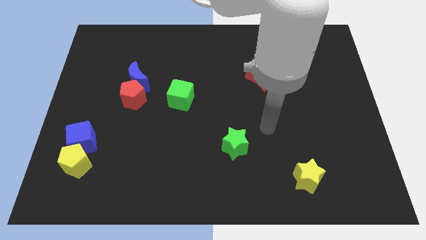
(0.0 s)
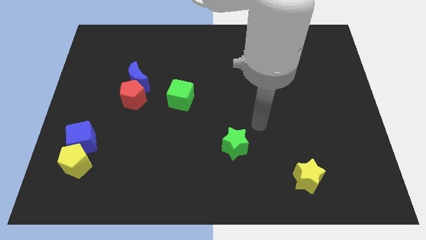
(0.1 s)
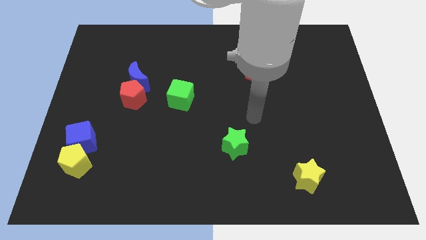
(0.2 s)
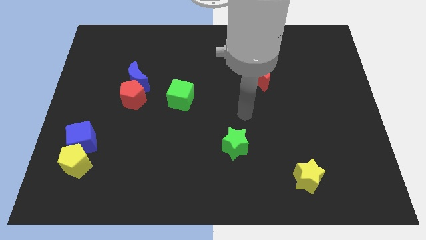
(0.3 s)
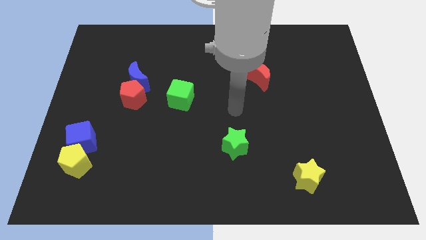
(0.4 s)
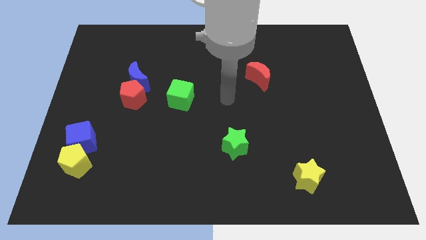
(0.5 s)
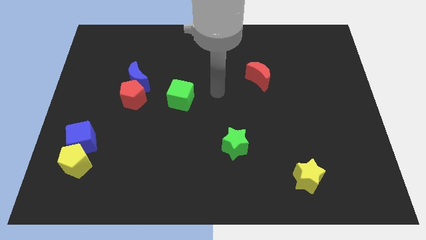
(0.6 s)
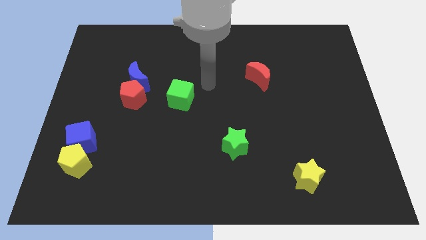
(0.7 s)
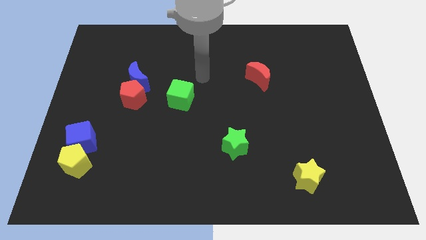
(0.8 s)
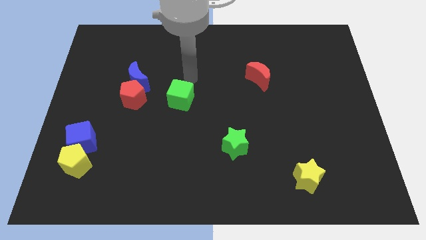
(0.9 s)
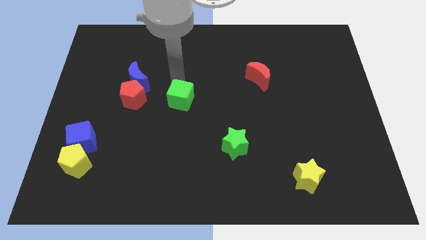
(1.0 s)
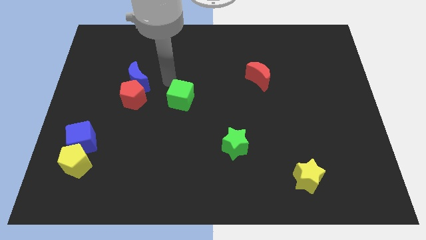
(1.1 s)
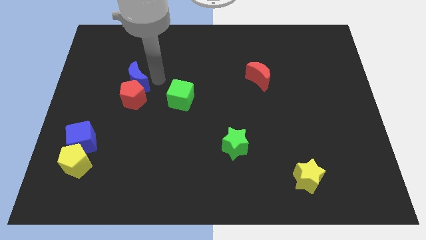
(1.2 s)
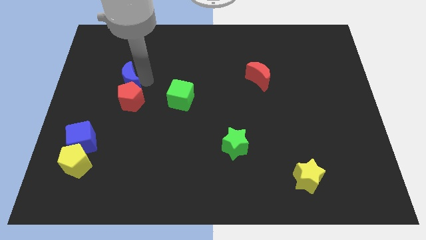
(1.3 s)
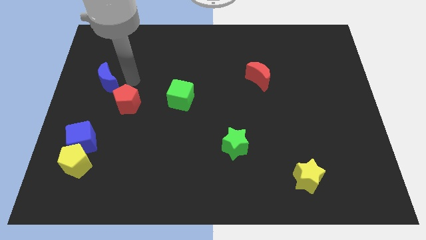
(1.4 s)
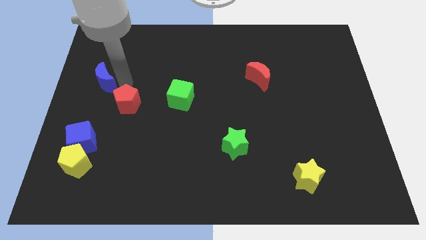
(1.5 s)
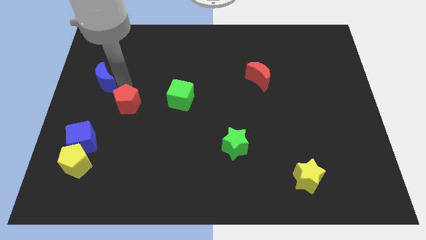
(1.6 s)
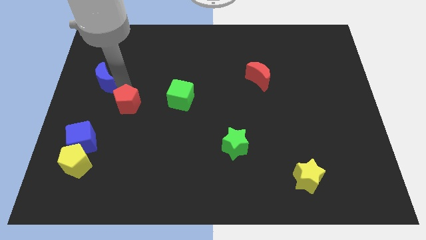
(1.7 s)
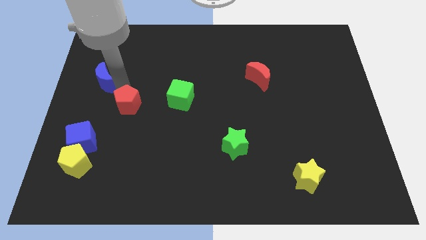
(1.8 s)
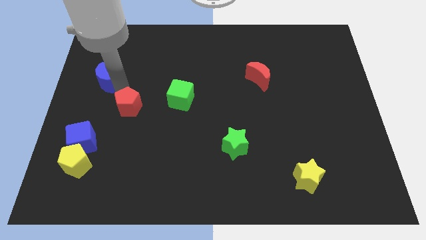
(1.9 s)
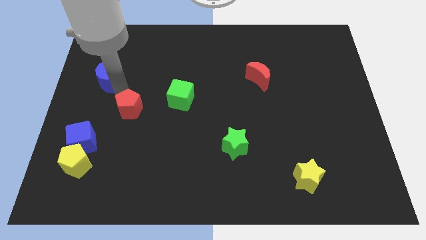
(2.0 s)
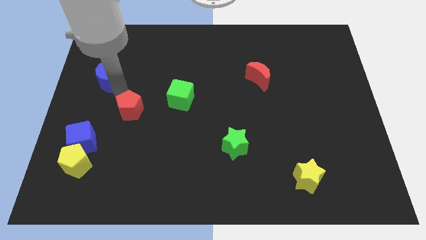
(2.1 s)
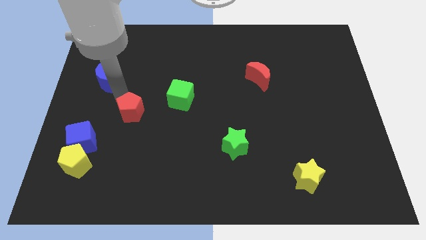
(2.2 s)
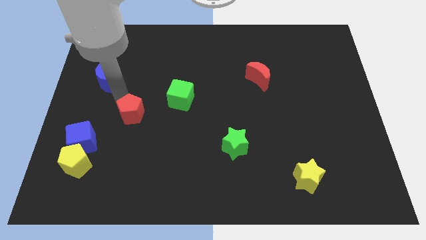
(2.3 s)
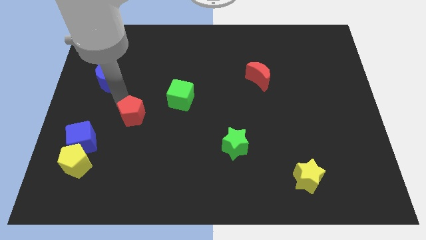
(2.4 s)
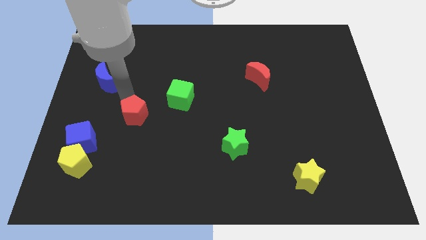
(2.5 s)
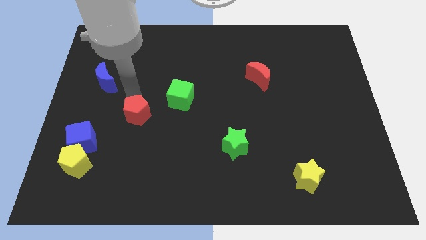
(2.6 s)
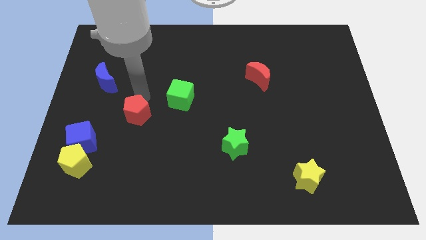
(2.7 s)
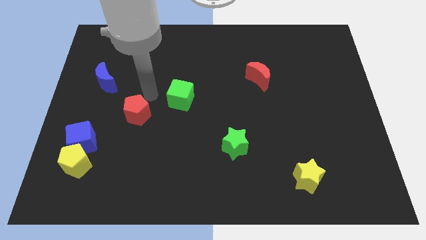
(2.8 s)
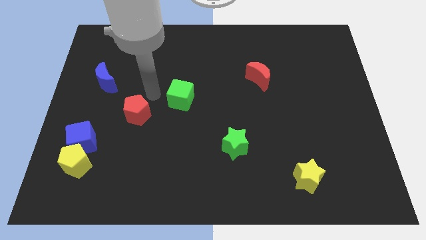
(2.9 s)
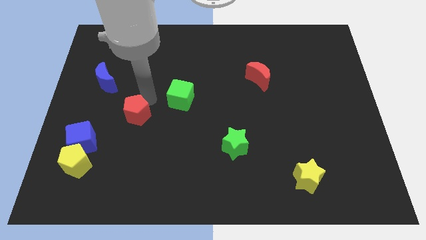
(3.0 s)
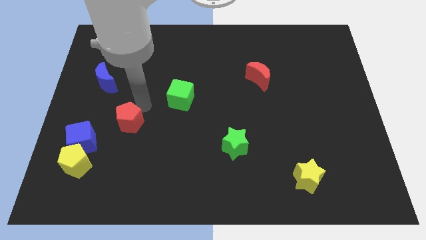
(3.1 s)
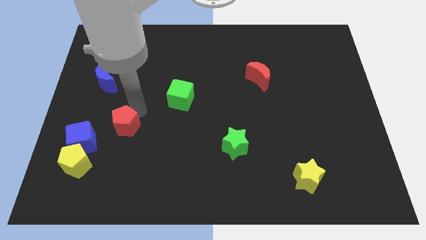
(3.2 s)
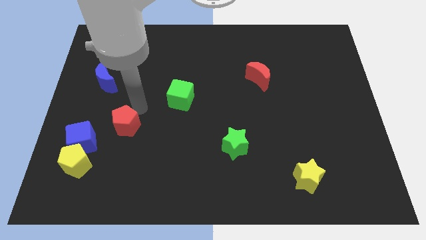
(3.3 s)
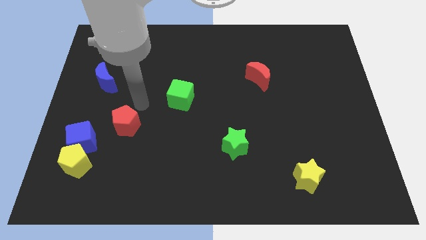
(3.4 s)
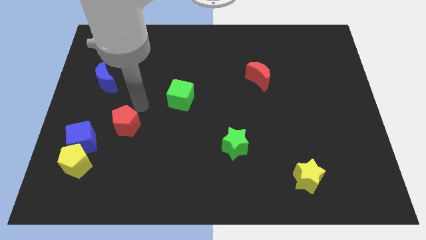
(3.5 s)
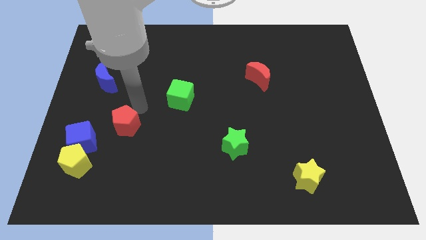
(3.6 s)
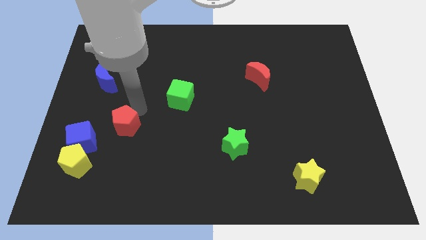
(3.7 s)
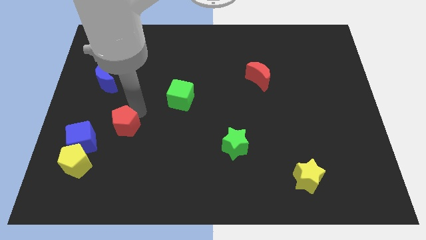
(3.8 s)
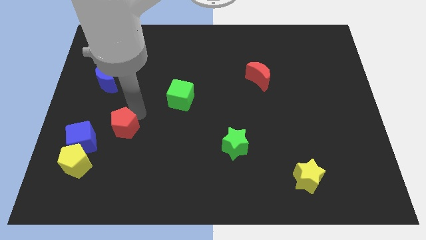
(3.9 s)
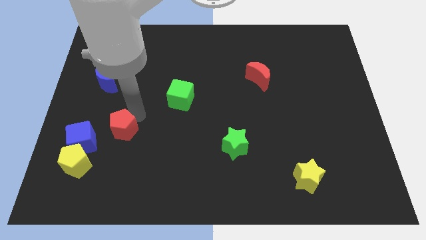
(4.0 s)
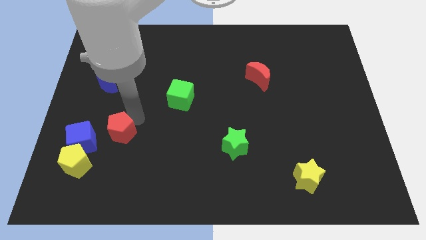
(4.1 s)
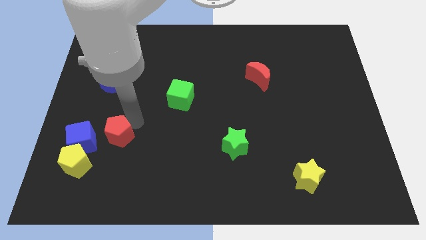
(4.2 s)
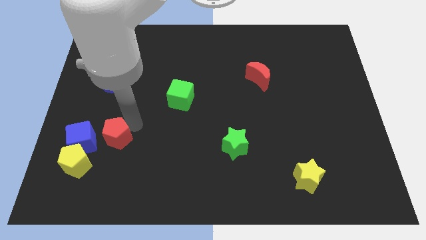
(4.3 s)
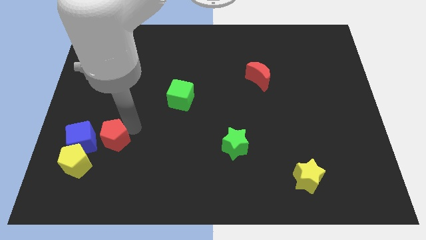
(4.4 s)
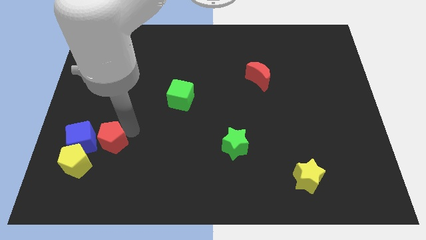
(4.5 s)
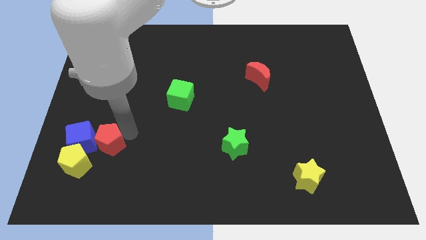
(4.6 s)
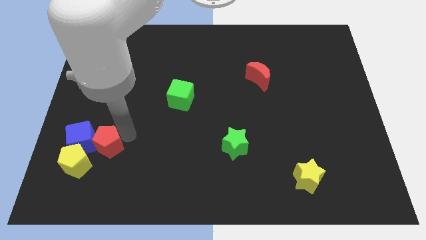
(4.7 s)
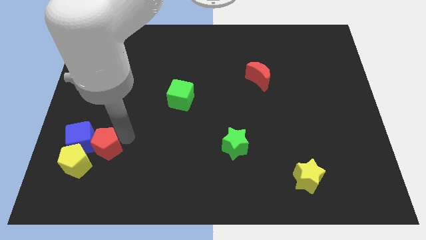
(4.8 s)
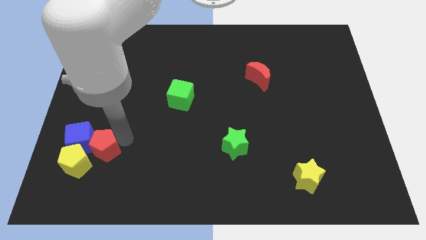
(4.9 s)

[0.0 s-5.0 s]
push the red pentagon close to the yellow pentagon

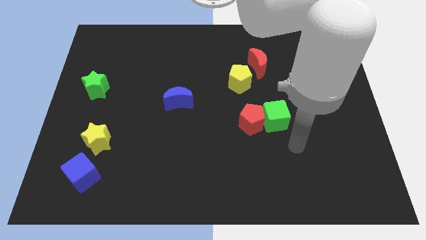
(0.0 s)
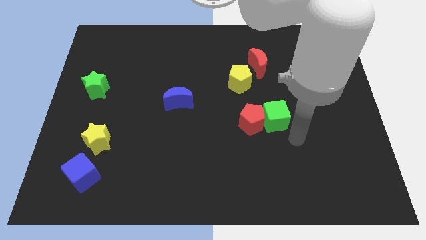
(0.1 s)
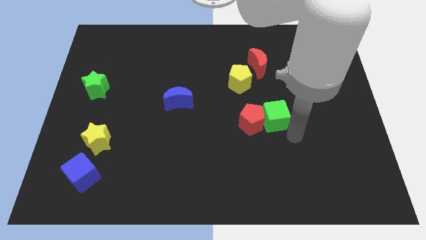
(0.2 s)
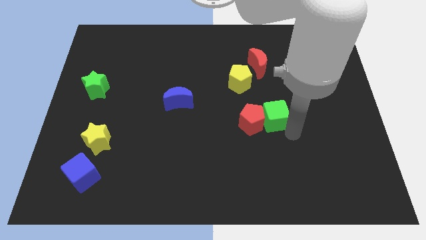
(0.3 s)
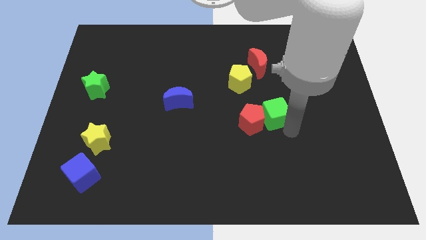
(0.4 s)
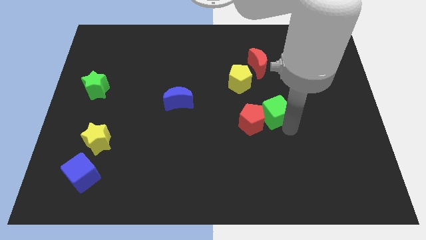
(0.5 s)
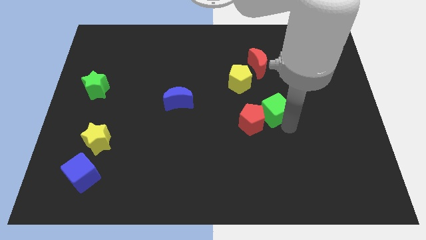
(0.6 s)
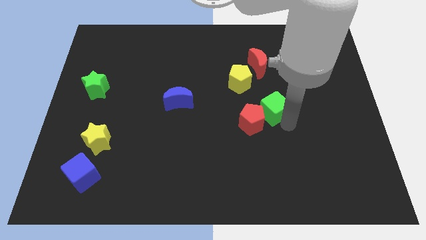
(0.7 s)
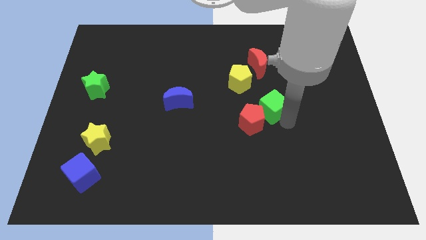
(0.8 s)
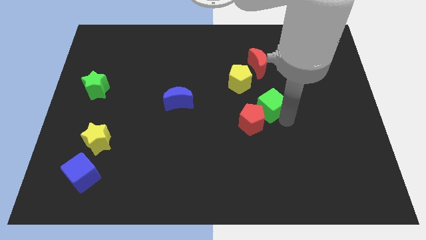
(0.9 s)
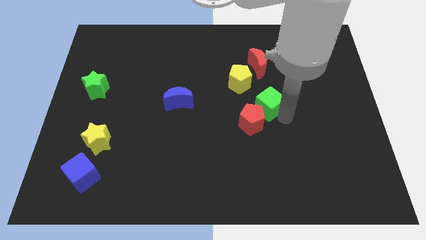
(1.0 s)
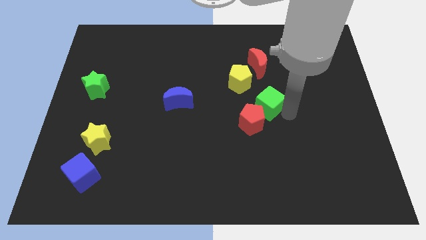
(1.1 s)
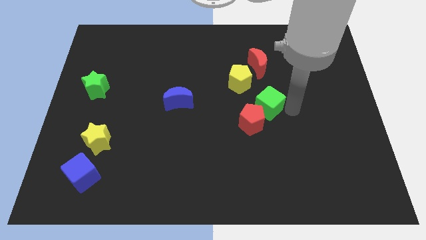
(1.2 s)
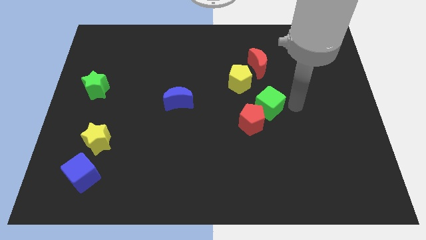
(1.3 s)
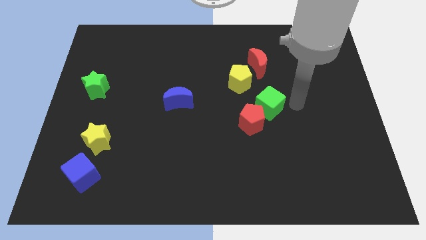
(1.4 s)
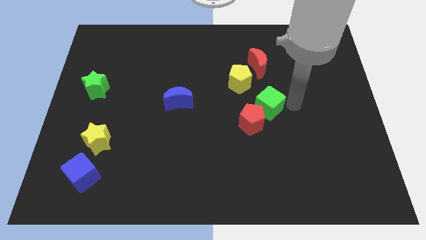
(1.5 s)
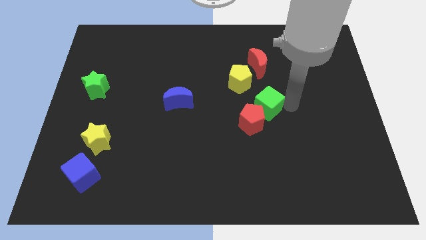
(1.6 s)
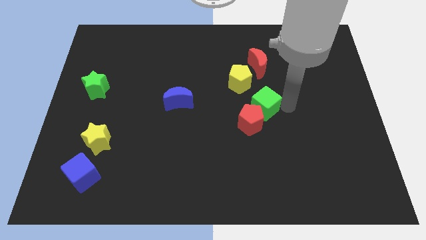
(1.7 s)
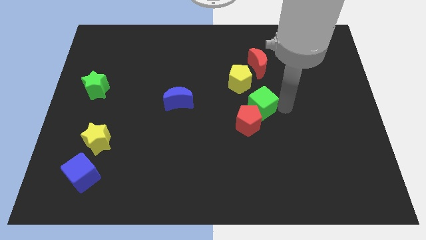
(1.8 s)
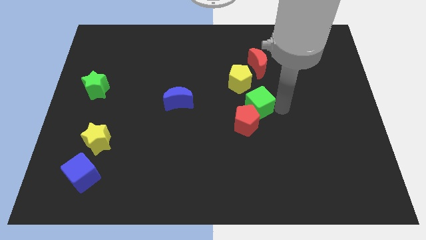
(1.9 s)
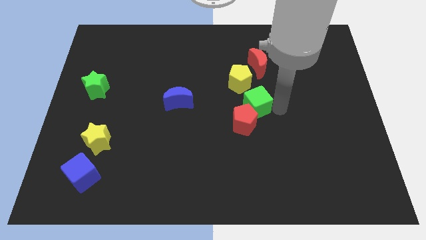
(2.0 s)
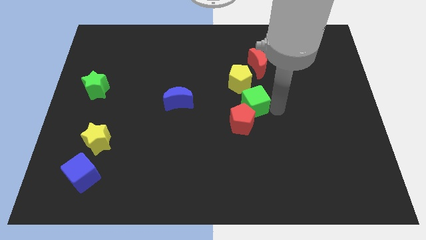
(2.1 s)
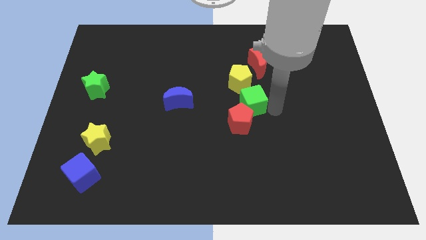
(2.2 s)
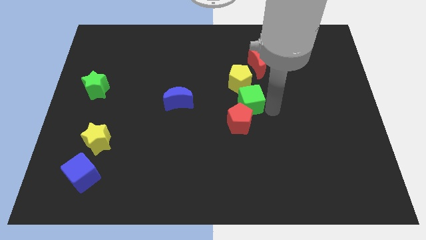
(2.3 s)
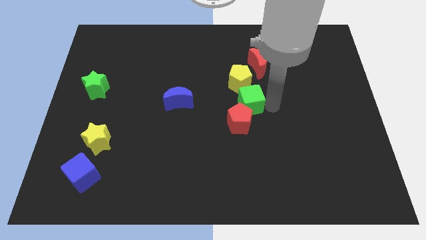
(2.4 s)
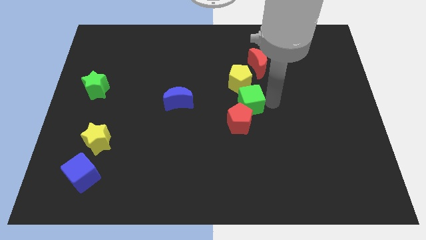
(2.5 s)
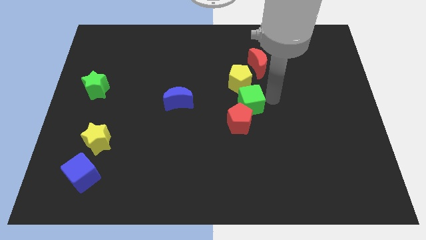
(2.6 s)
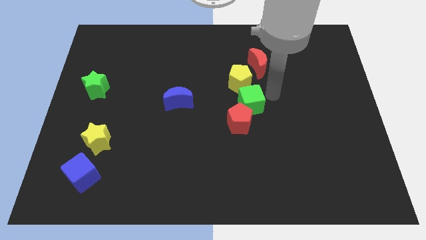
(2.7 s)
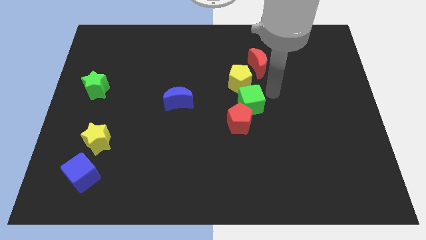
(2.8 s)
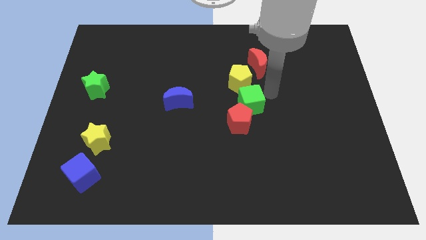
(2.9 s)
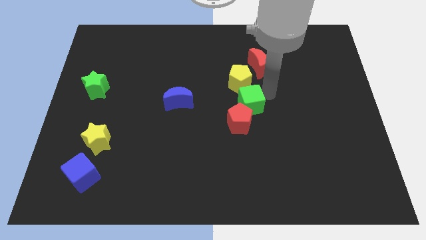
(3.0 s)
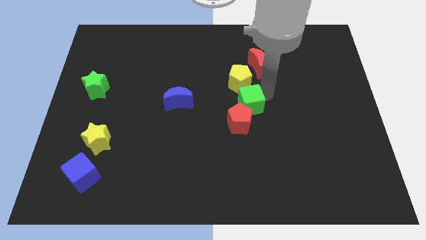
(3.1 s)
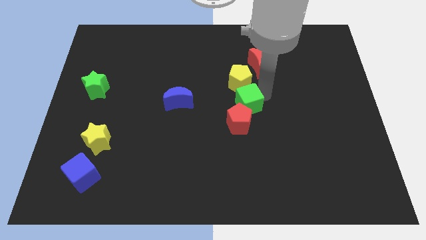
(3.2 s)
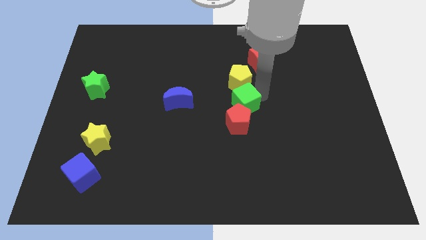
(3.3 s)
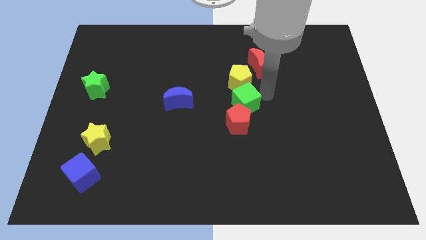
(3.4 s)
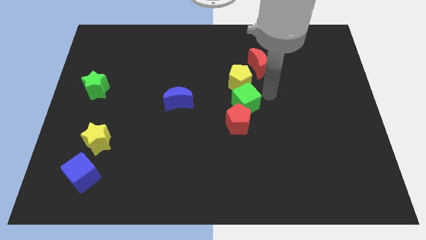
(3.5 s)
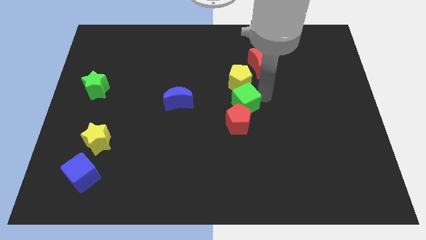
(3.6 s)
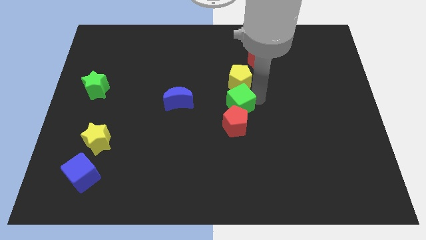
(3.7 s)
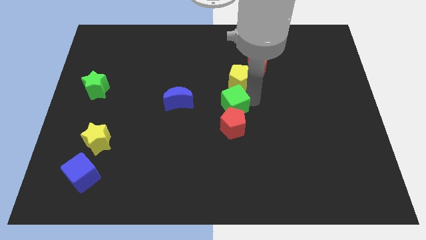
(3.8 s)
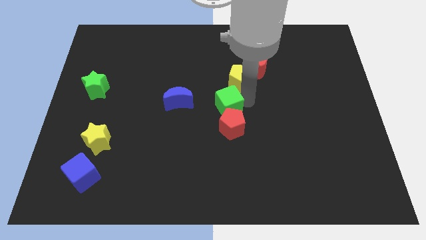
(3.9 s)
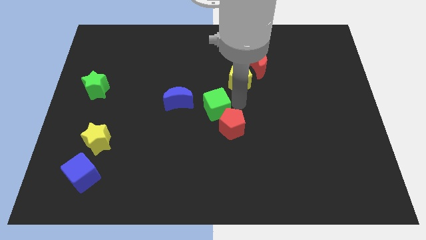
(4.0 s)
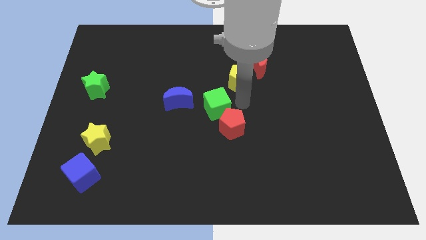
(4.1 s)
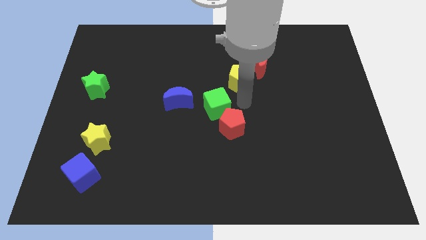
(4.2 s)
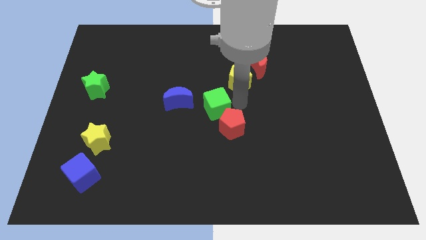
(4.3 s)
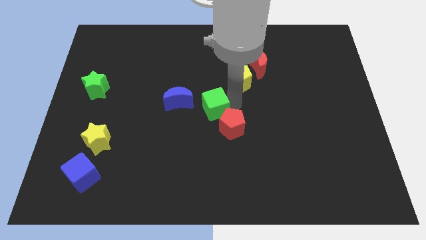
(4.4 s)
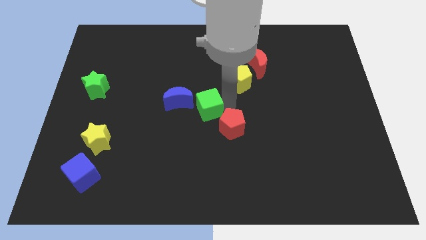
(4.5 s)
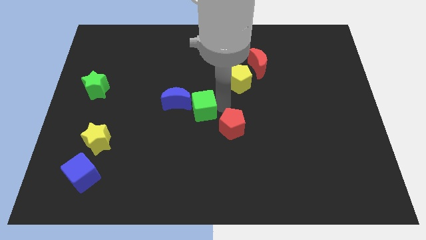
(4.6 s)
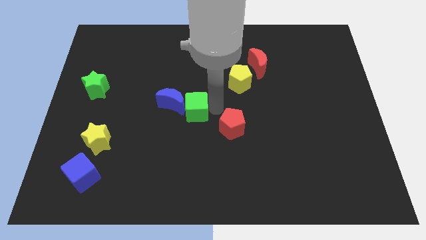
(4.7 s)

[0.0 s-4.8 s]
put the green cube close to the blue moon
